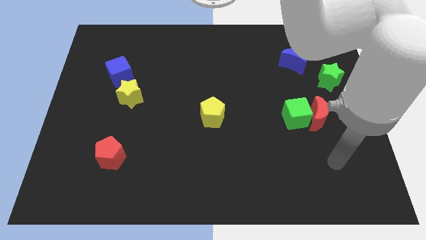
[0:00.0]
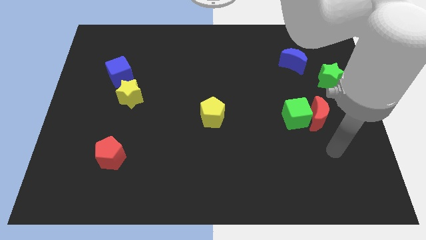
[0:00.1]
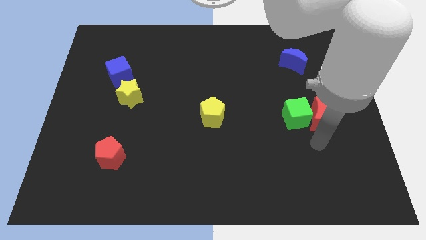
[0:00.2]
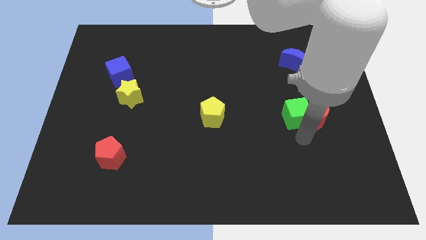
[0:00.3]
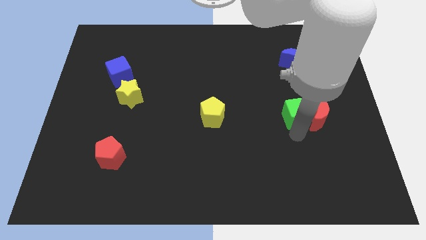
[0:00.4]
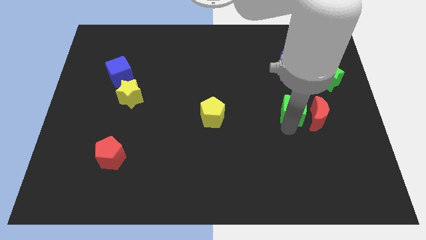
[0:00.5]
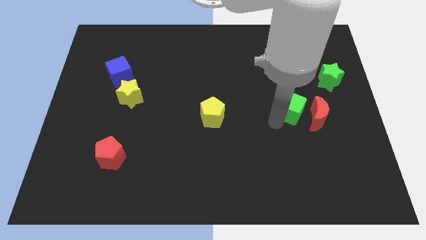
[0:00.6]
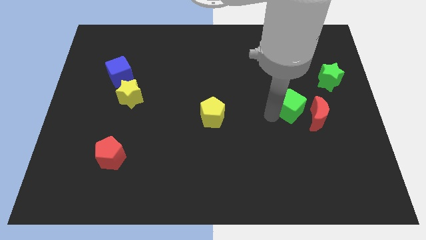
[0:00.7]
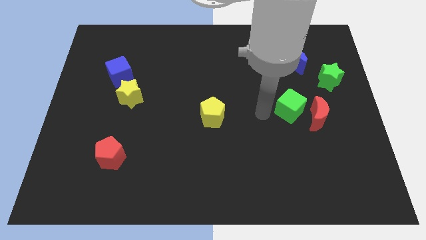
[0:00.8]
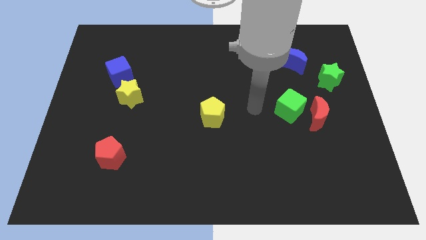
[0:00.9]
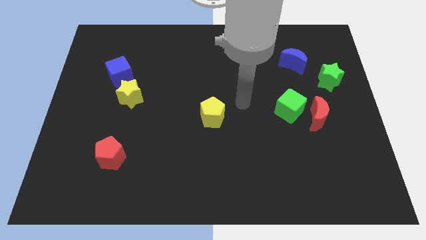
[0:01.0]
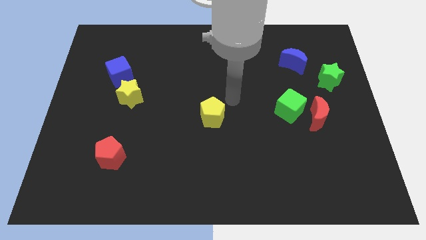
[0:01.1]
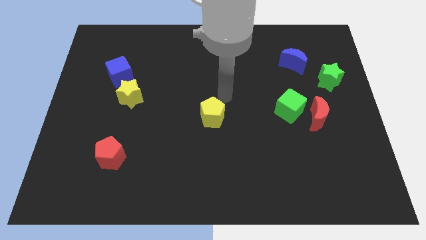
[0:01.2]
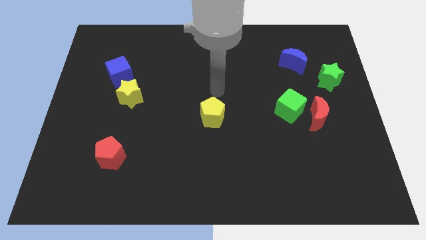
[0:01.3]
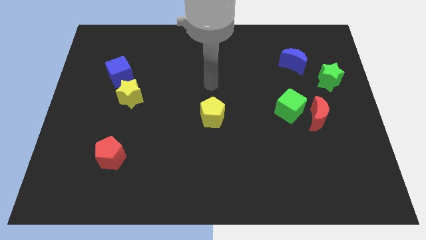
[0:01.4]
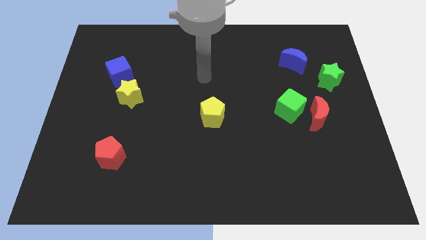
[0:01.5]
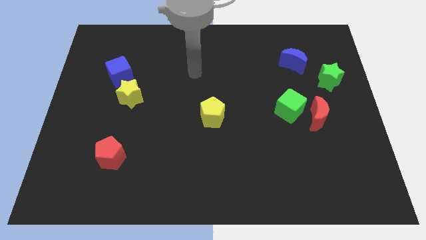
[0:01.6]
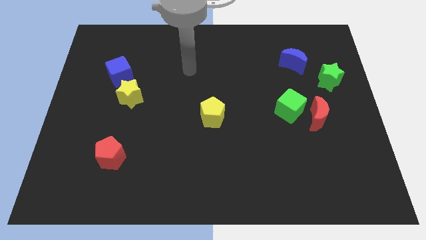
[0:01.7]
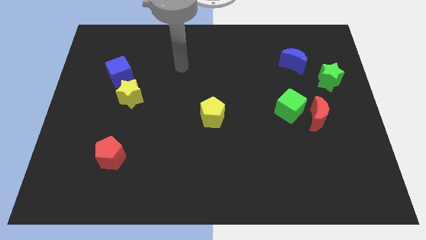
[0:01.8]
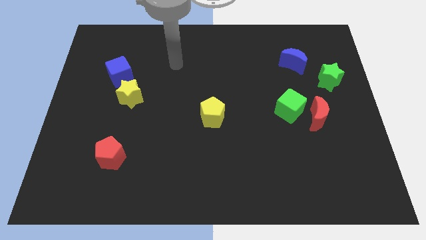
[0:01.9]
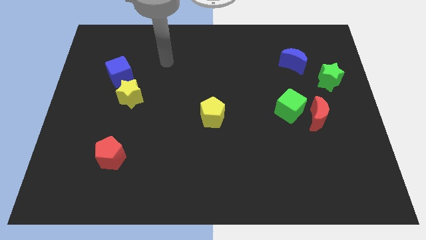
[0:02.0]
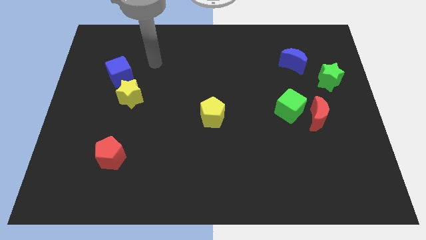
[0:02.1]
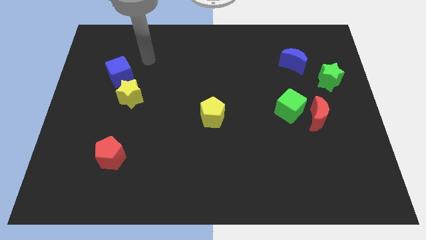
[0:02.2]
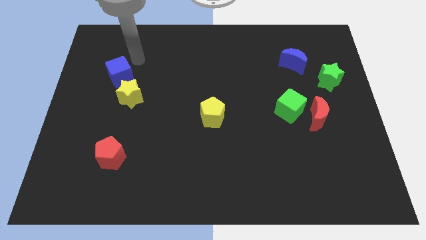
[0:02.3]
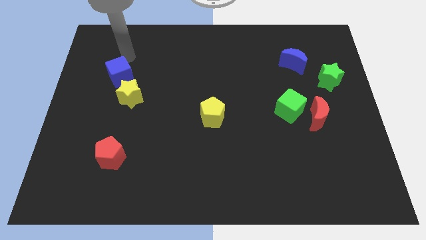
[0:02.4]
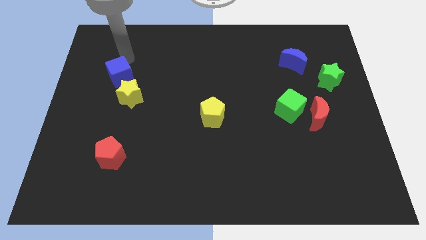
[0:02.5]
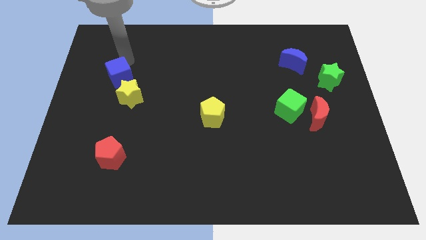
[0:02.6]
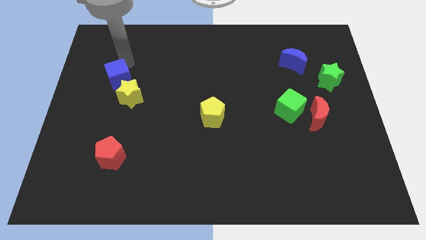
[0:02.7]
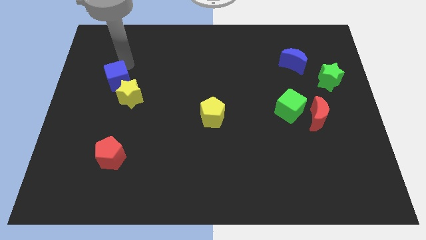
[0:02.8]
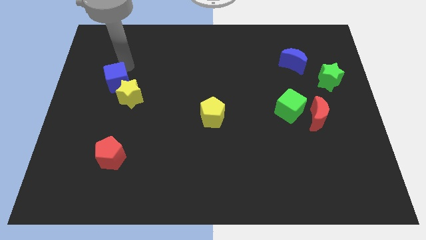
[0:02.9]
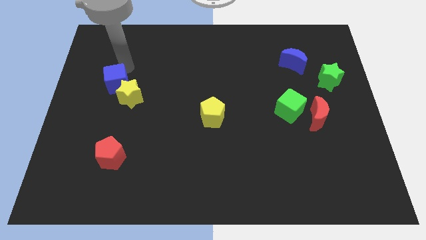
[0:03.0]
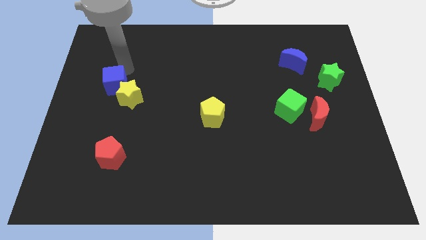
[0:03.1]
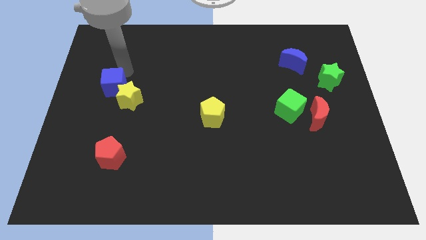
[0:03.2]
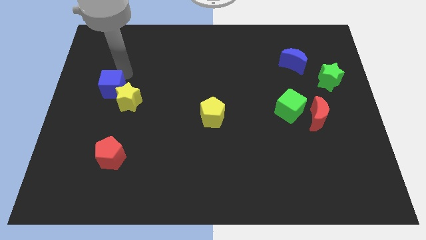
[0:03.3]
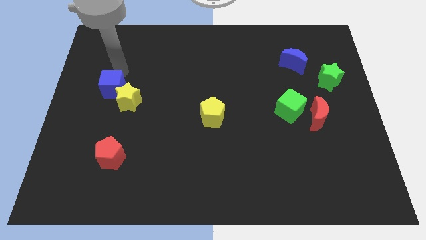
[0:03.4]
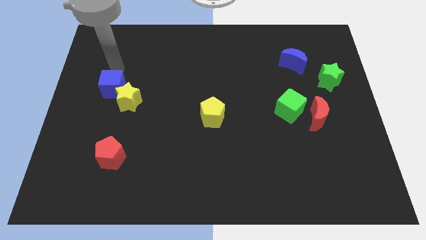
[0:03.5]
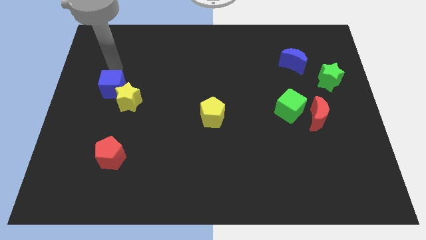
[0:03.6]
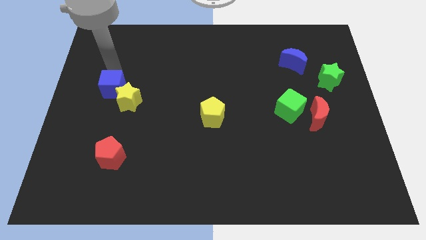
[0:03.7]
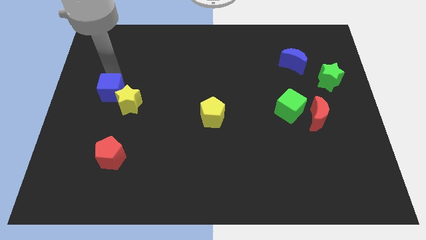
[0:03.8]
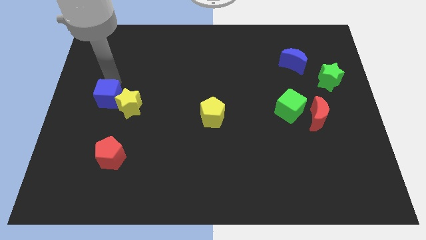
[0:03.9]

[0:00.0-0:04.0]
slightly slide the blue cube down

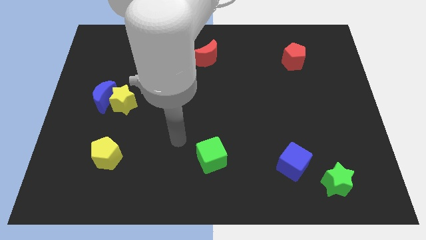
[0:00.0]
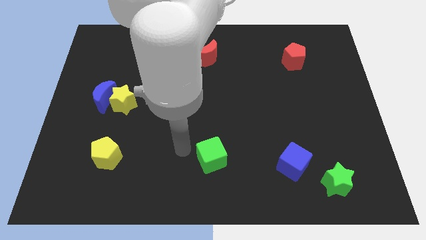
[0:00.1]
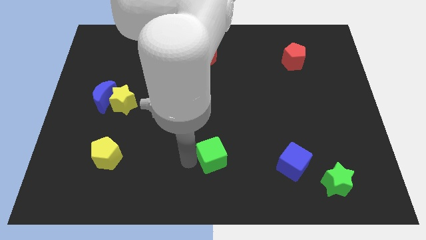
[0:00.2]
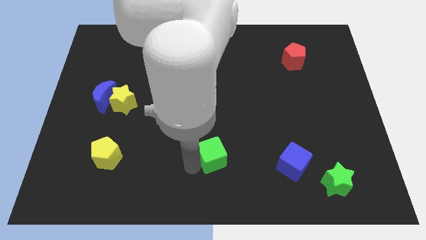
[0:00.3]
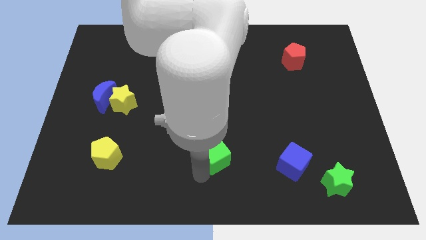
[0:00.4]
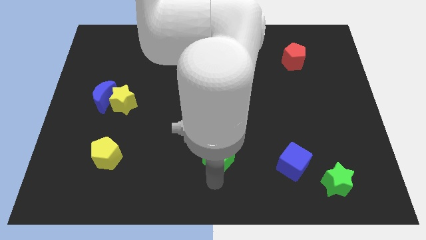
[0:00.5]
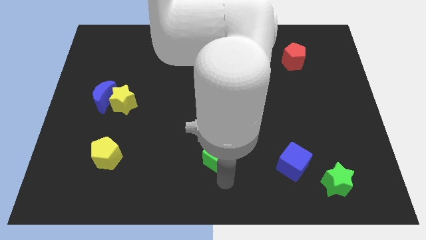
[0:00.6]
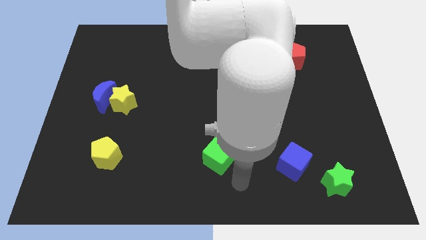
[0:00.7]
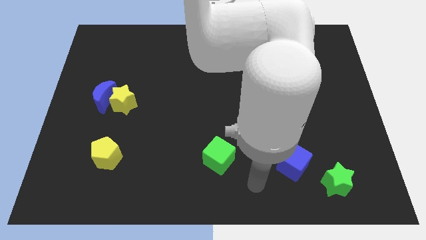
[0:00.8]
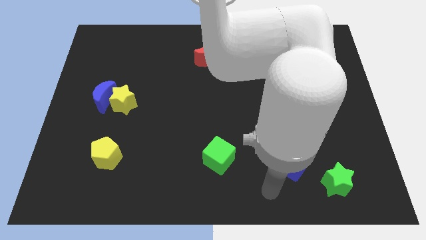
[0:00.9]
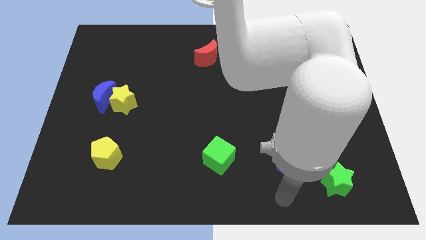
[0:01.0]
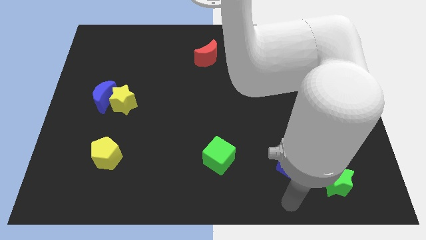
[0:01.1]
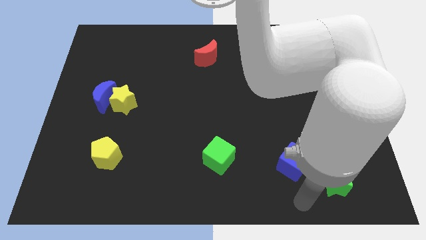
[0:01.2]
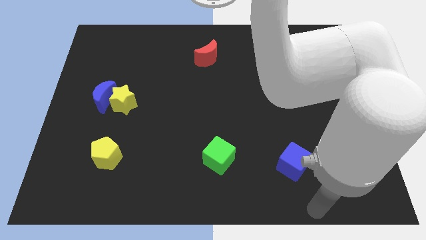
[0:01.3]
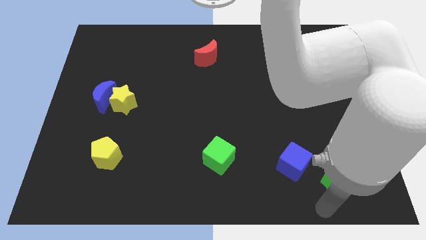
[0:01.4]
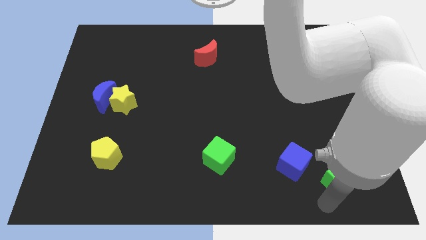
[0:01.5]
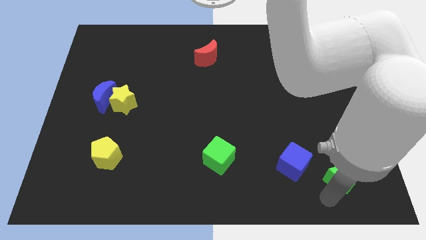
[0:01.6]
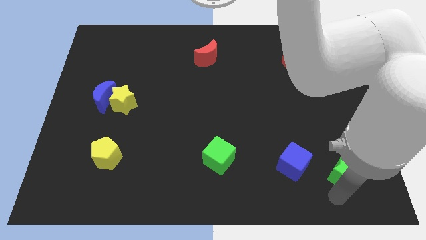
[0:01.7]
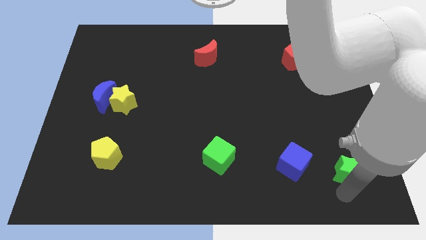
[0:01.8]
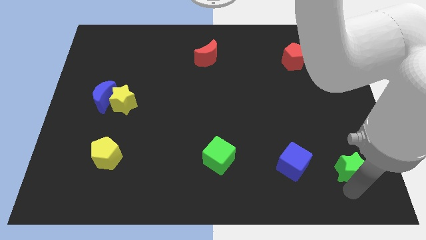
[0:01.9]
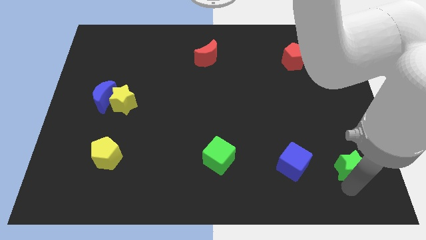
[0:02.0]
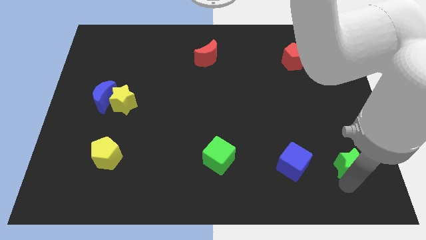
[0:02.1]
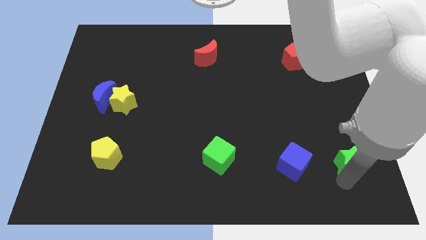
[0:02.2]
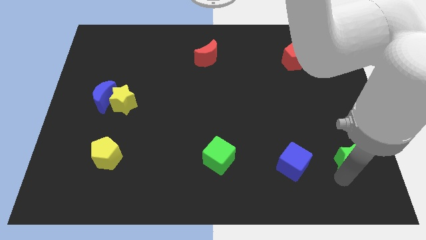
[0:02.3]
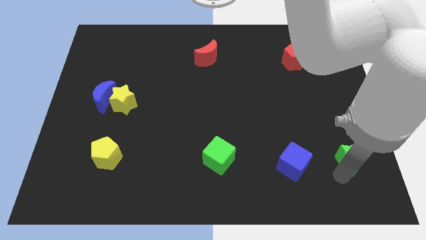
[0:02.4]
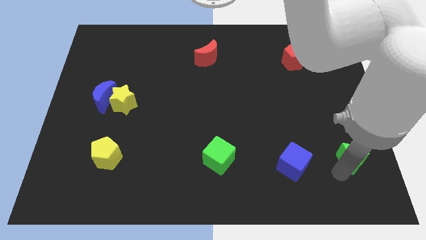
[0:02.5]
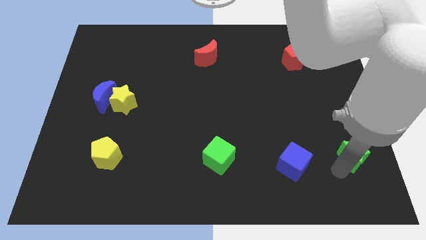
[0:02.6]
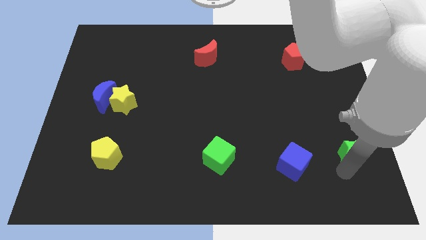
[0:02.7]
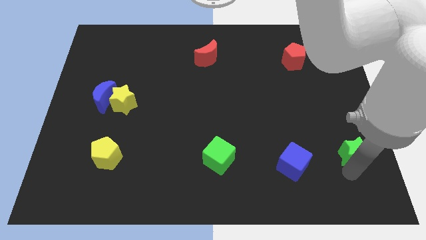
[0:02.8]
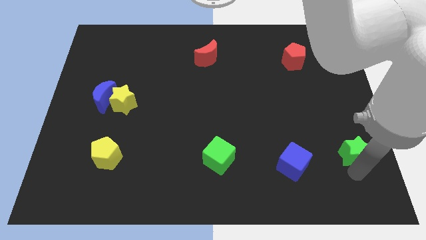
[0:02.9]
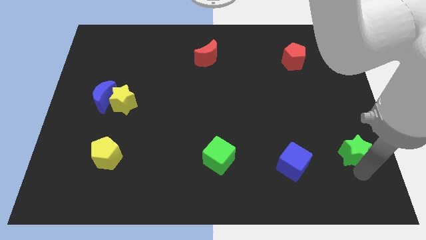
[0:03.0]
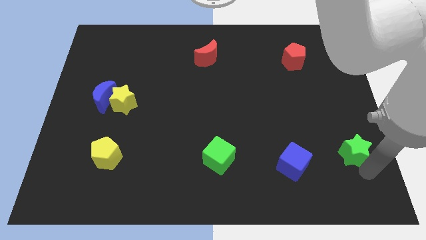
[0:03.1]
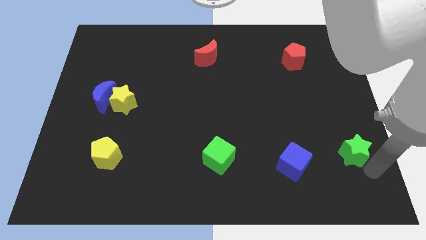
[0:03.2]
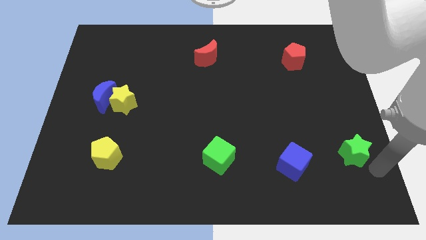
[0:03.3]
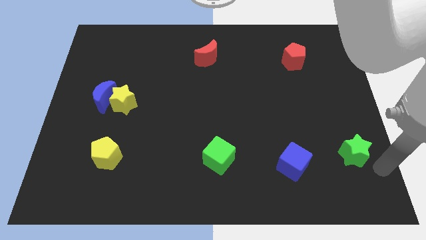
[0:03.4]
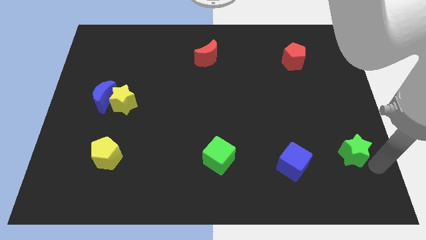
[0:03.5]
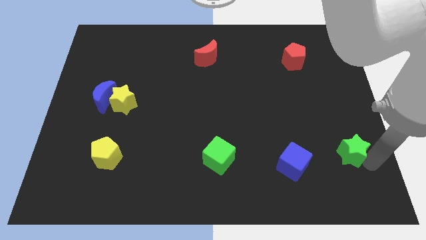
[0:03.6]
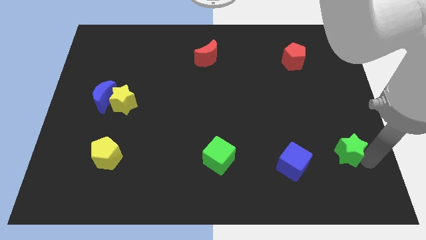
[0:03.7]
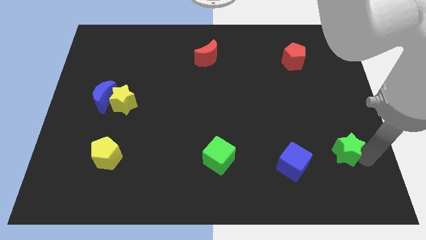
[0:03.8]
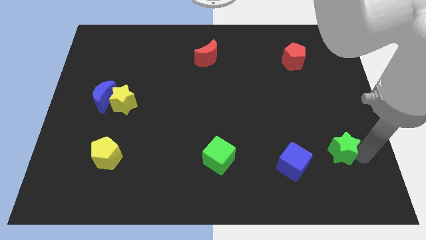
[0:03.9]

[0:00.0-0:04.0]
push the green star up a little

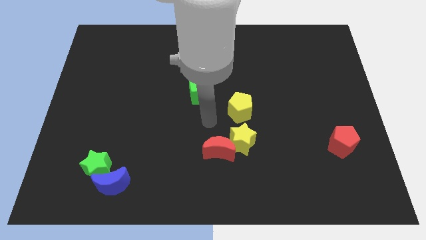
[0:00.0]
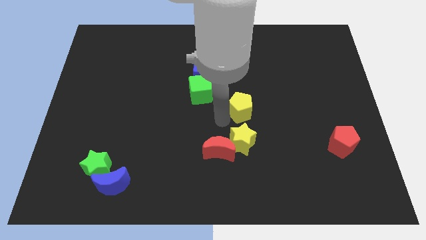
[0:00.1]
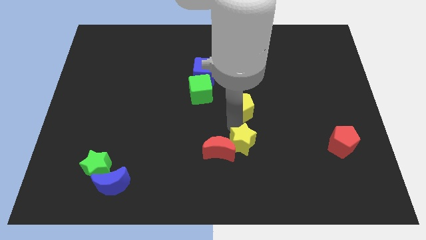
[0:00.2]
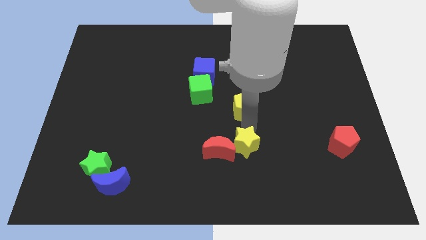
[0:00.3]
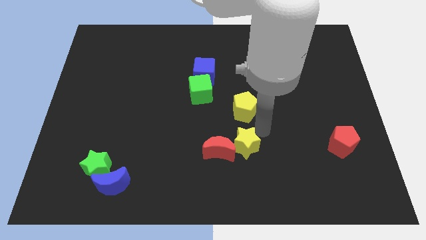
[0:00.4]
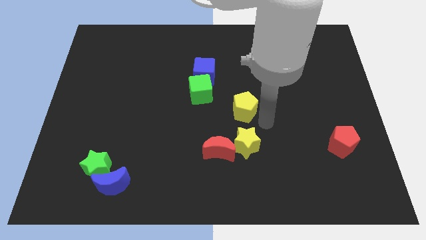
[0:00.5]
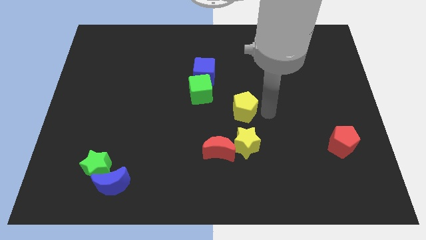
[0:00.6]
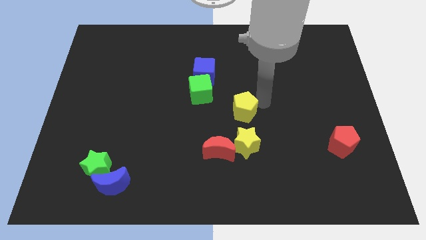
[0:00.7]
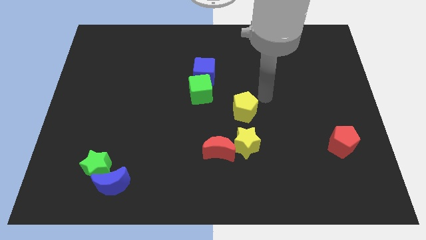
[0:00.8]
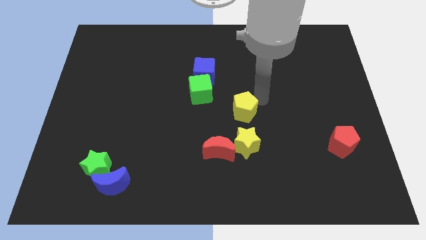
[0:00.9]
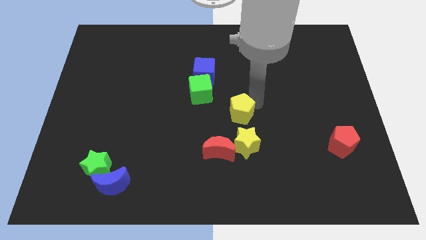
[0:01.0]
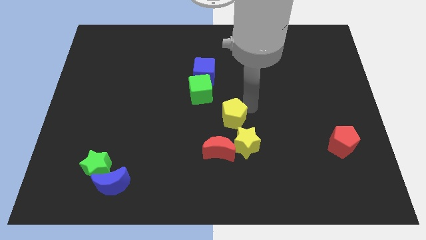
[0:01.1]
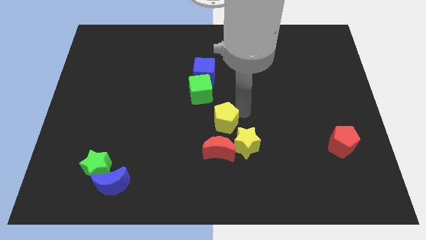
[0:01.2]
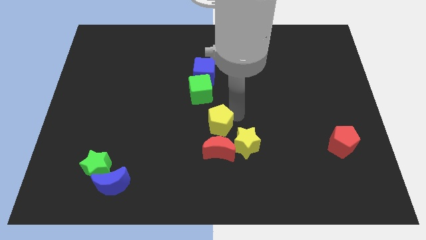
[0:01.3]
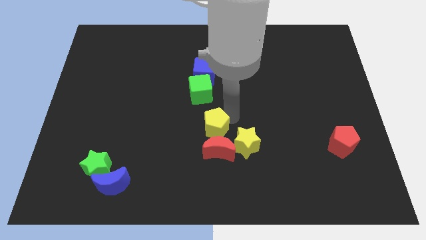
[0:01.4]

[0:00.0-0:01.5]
push the yellow pentagon down and then left a little bit
